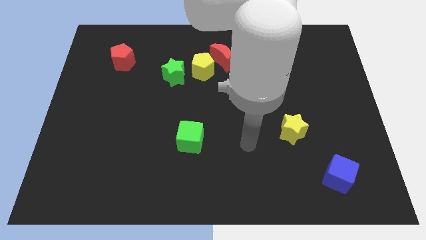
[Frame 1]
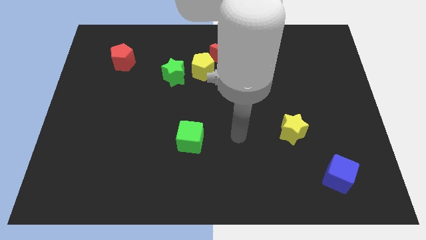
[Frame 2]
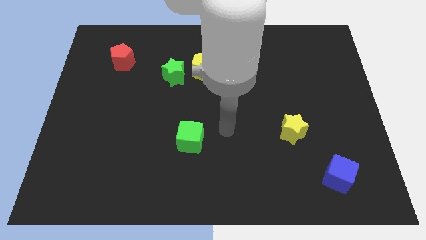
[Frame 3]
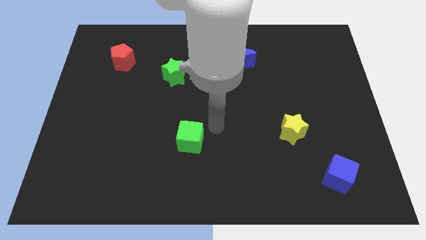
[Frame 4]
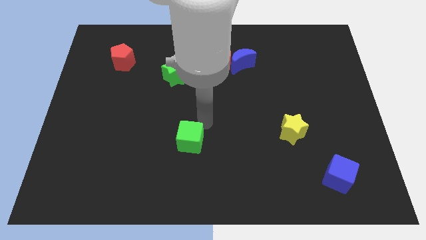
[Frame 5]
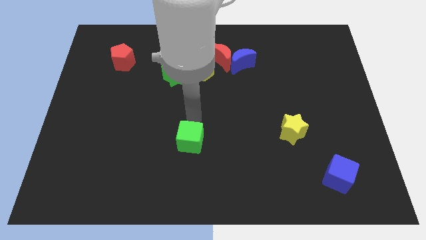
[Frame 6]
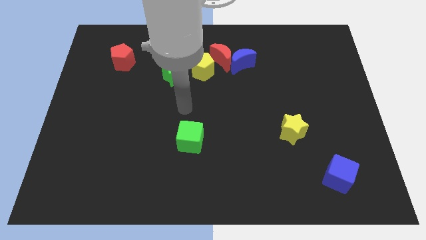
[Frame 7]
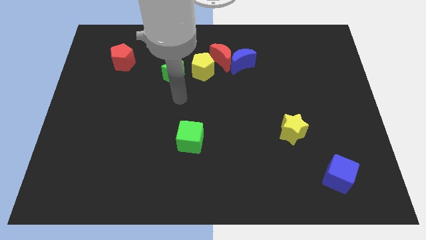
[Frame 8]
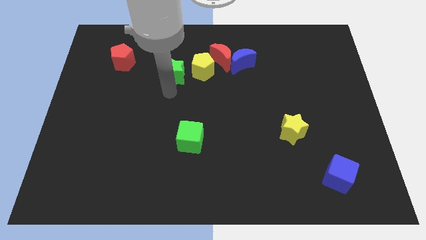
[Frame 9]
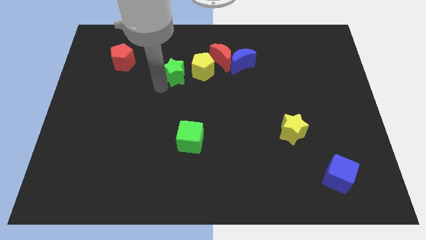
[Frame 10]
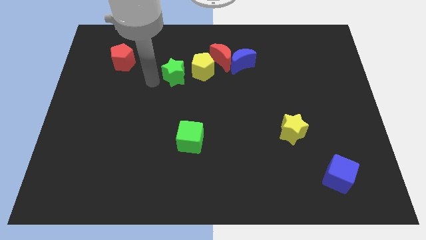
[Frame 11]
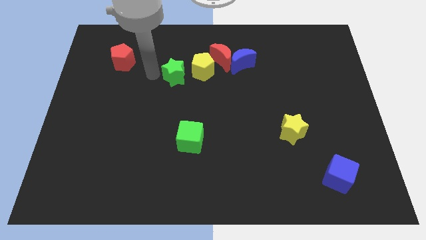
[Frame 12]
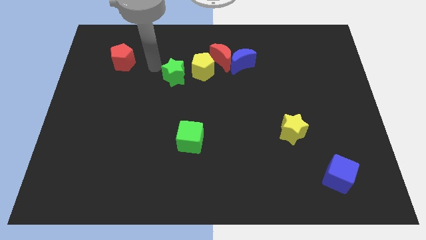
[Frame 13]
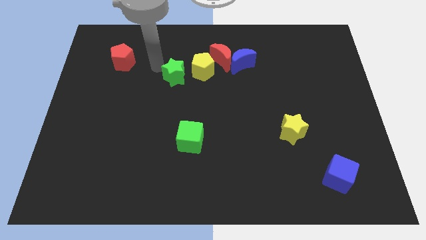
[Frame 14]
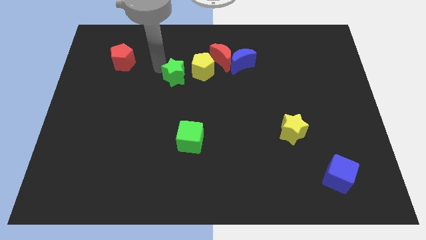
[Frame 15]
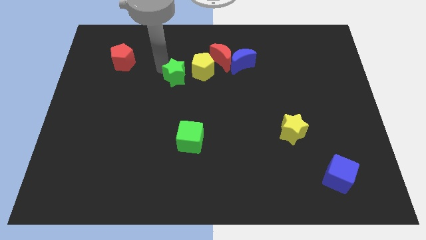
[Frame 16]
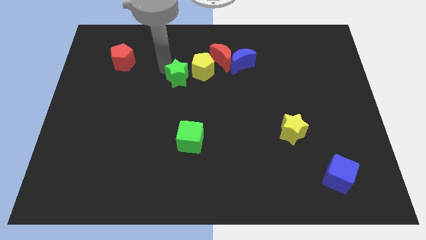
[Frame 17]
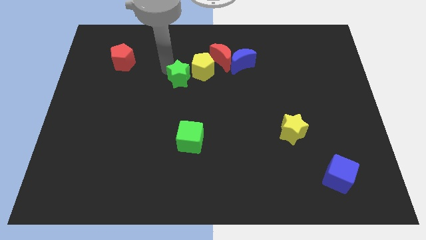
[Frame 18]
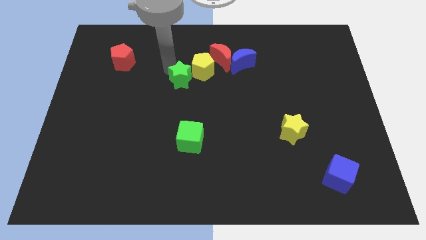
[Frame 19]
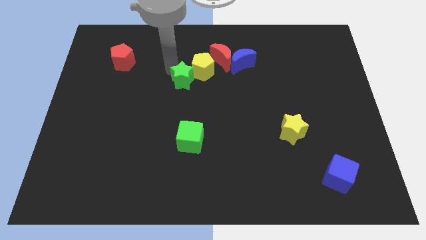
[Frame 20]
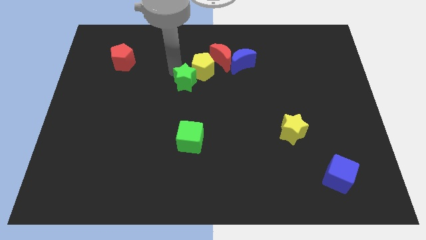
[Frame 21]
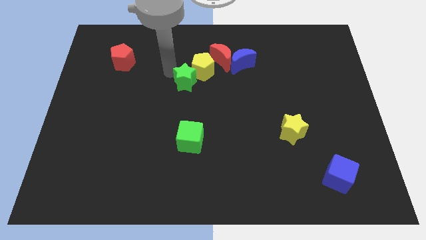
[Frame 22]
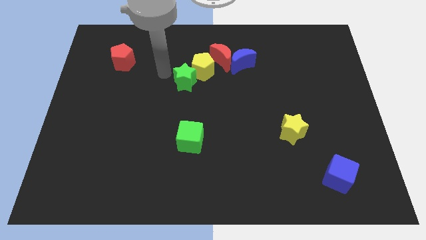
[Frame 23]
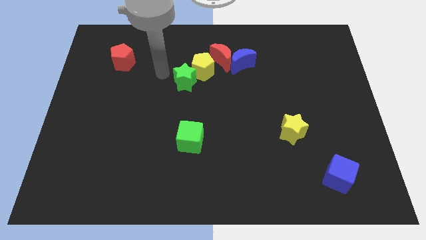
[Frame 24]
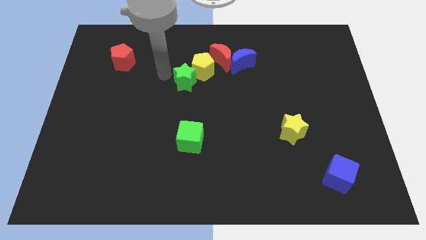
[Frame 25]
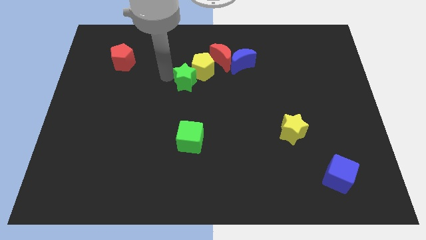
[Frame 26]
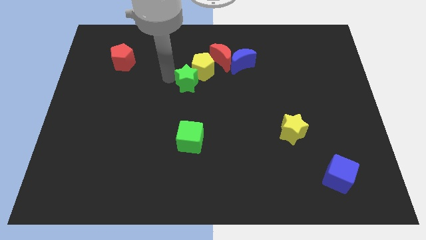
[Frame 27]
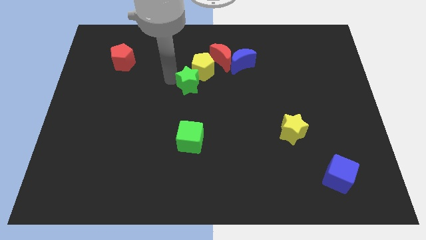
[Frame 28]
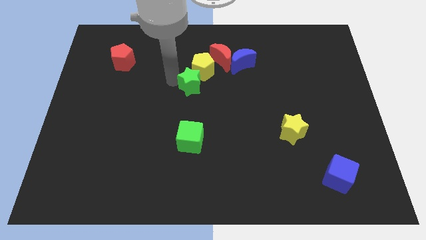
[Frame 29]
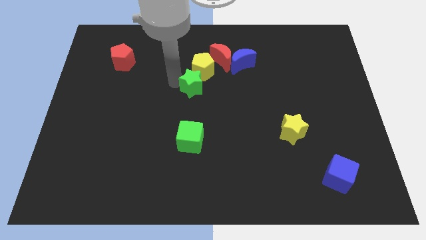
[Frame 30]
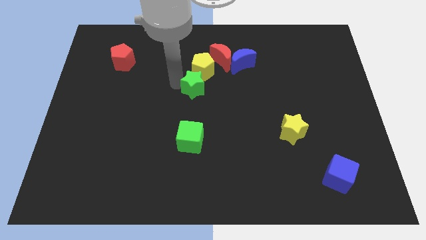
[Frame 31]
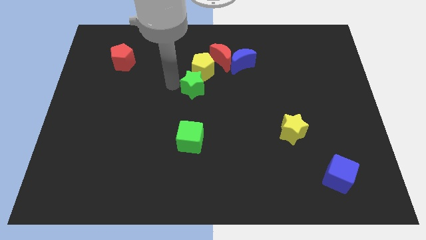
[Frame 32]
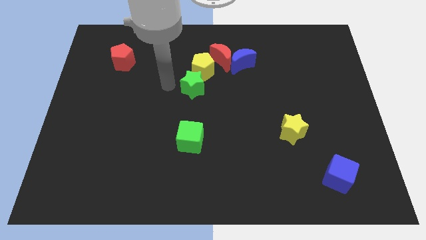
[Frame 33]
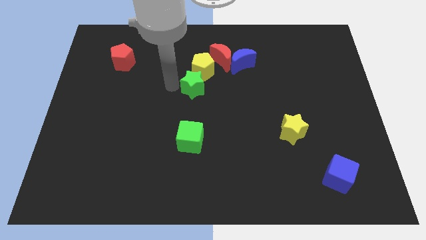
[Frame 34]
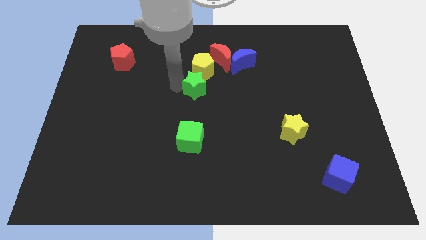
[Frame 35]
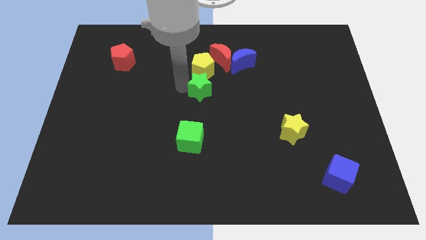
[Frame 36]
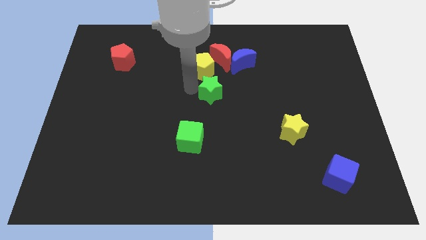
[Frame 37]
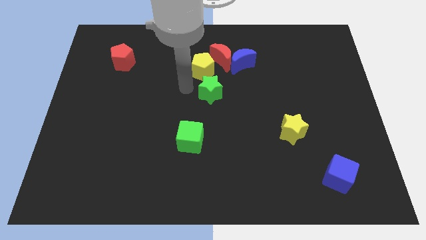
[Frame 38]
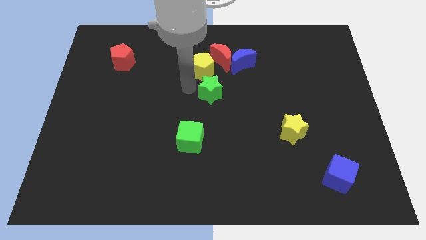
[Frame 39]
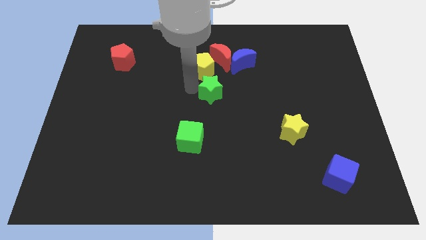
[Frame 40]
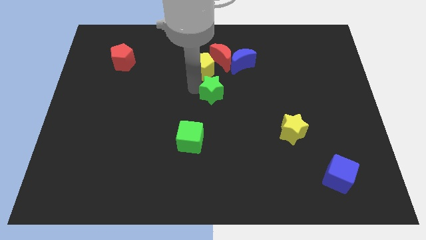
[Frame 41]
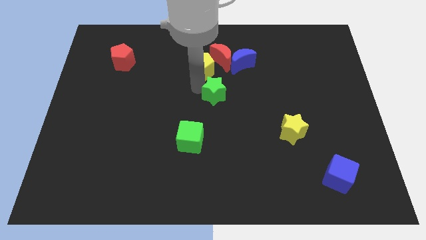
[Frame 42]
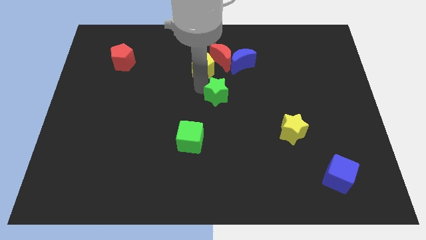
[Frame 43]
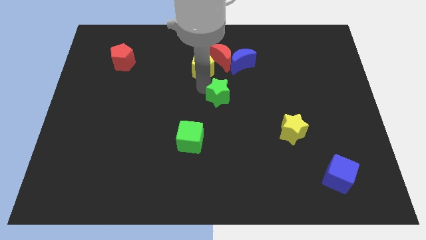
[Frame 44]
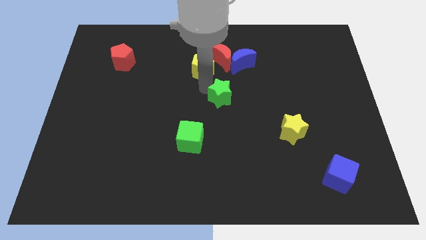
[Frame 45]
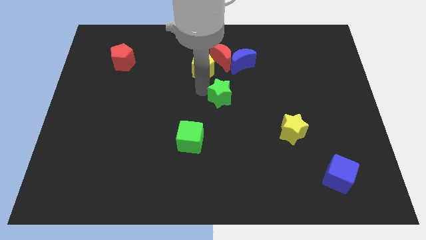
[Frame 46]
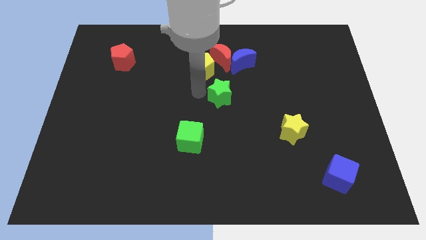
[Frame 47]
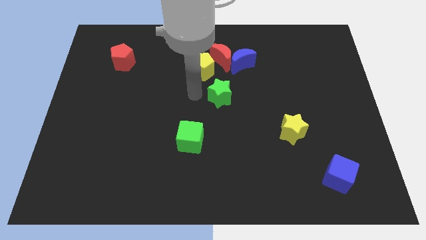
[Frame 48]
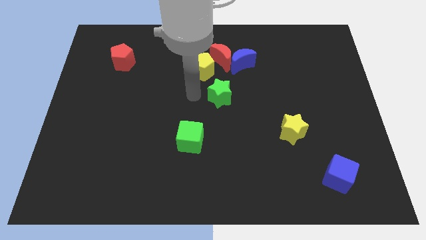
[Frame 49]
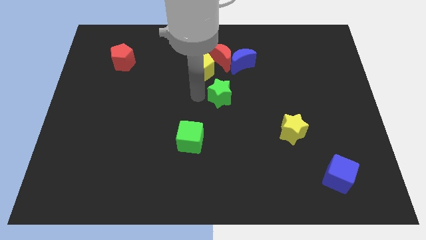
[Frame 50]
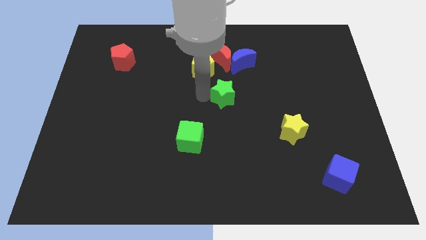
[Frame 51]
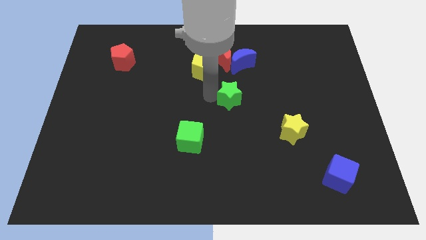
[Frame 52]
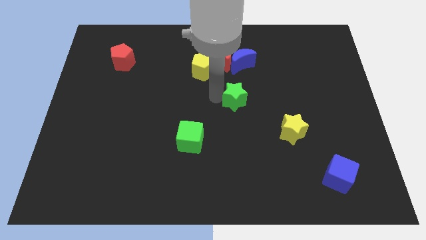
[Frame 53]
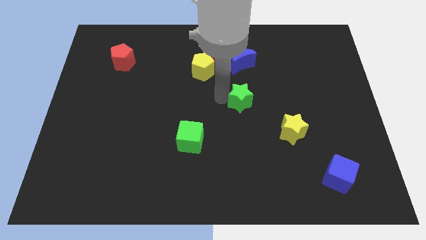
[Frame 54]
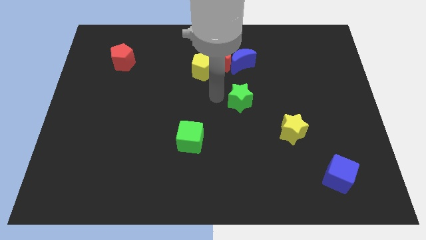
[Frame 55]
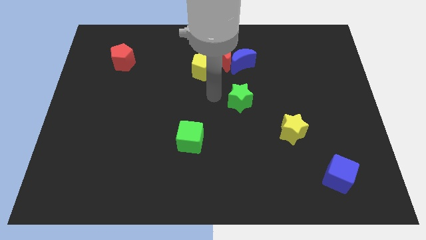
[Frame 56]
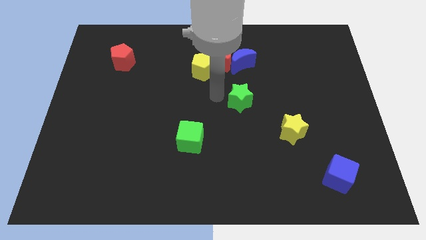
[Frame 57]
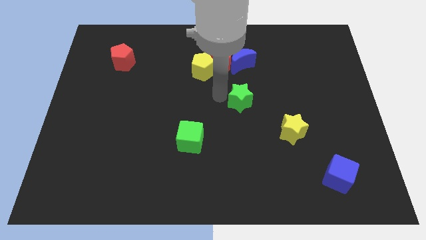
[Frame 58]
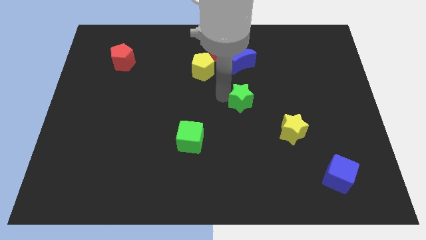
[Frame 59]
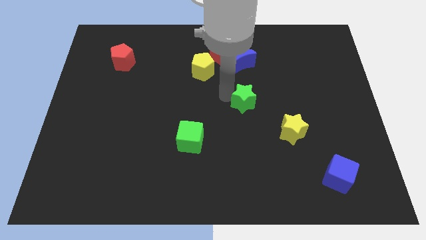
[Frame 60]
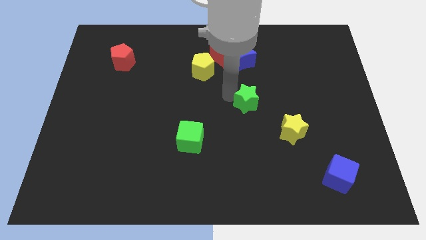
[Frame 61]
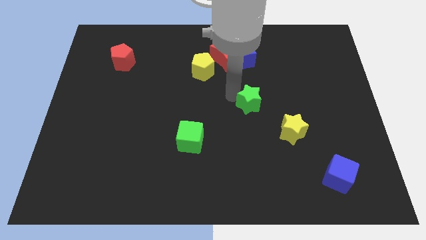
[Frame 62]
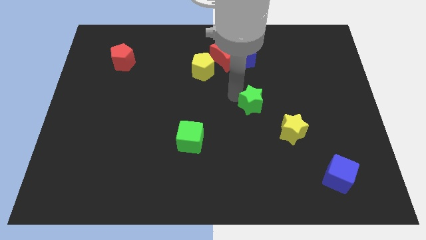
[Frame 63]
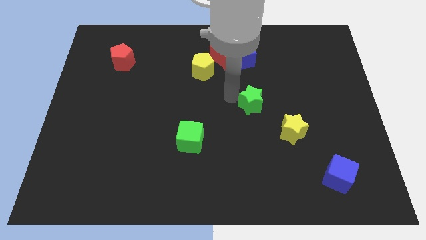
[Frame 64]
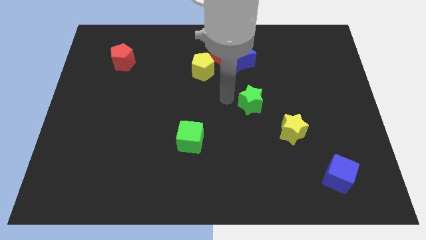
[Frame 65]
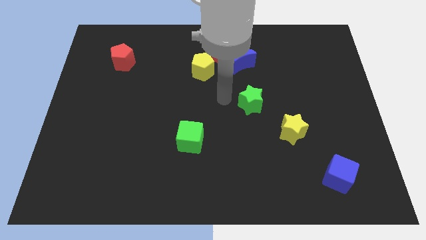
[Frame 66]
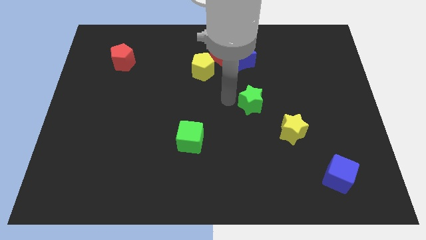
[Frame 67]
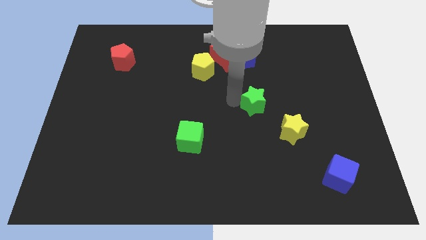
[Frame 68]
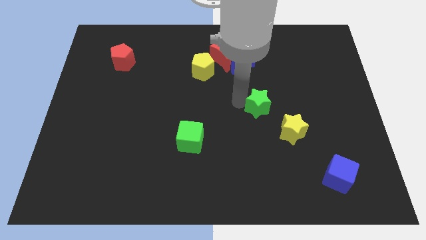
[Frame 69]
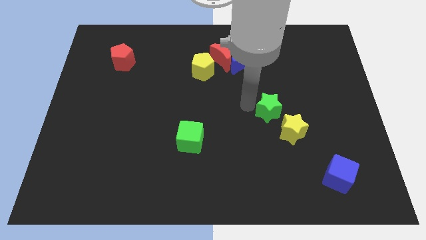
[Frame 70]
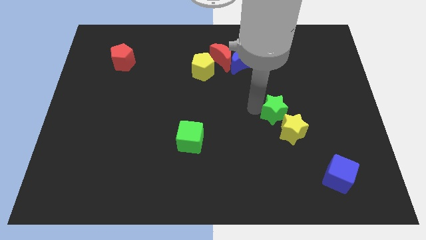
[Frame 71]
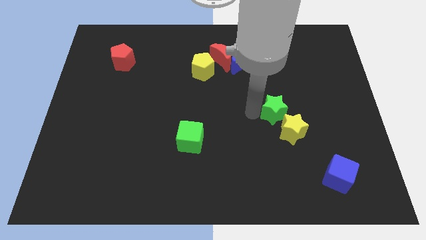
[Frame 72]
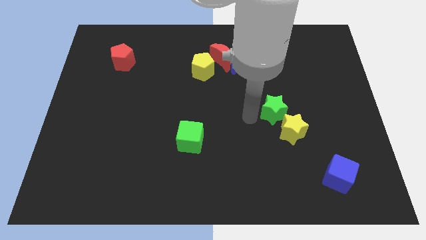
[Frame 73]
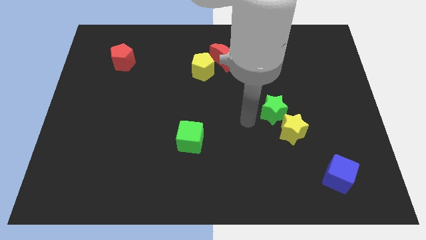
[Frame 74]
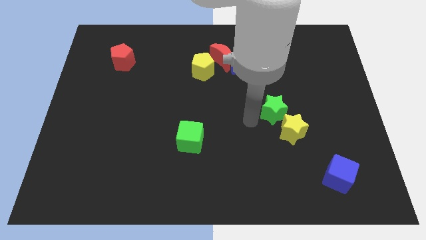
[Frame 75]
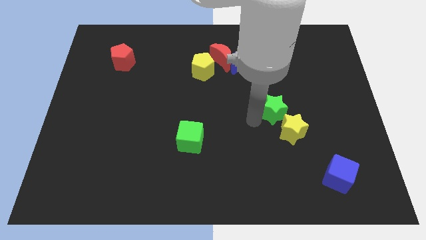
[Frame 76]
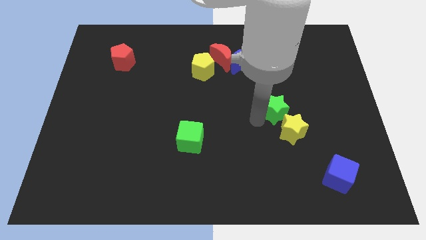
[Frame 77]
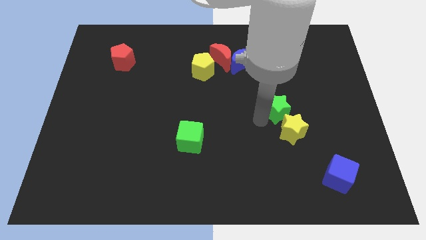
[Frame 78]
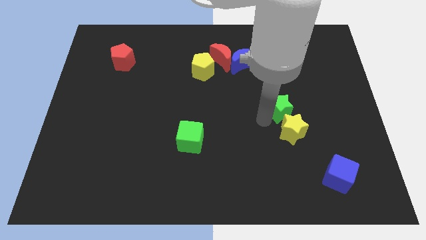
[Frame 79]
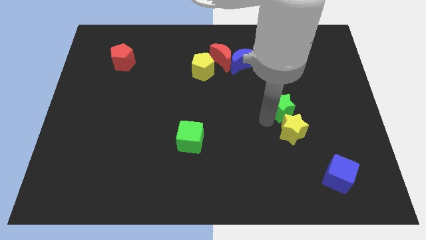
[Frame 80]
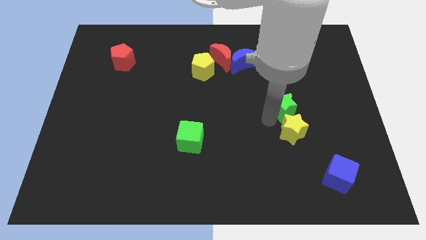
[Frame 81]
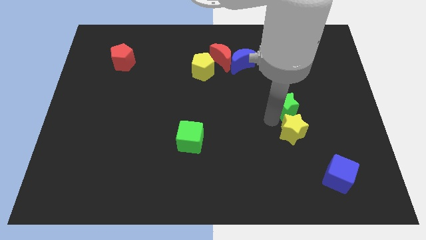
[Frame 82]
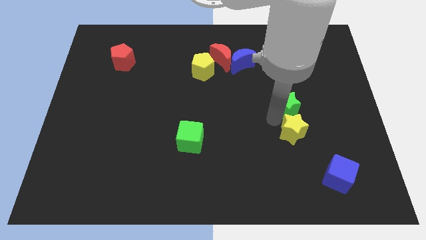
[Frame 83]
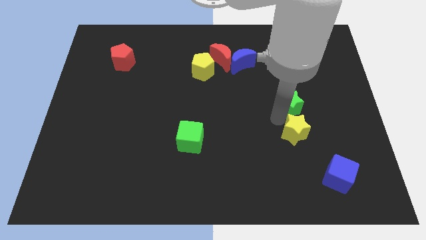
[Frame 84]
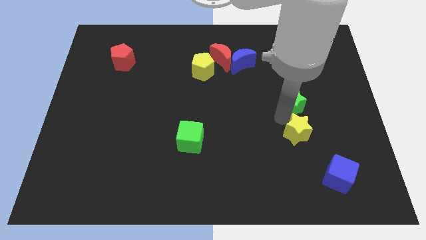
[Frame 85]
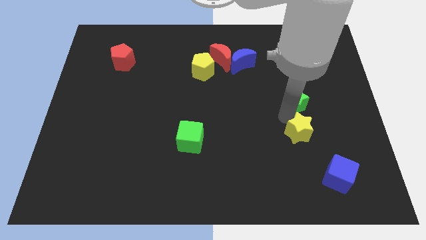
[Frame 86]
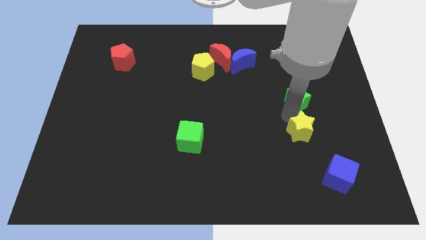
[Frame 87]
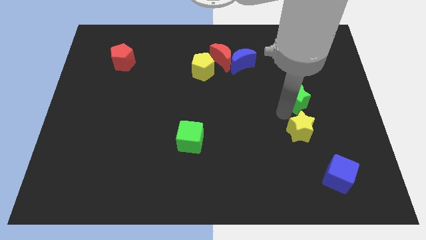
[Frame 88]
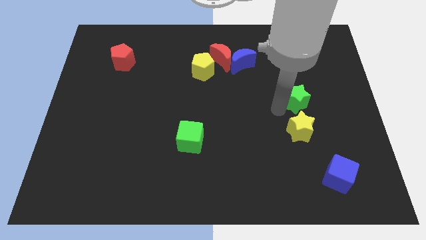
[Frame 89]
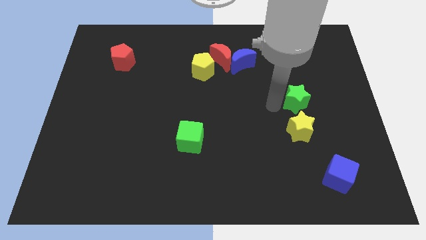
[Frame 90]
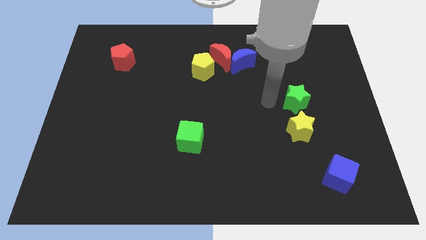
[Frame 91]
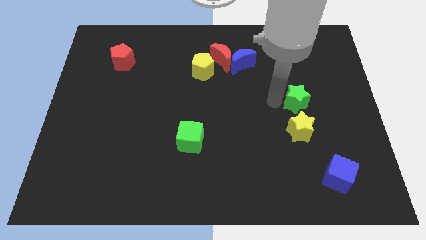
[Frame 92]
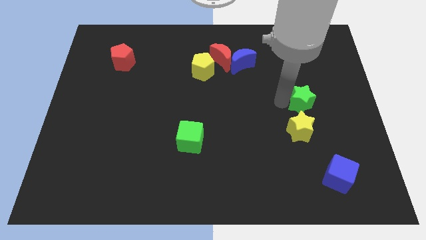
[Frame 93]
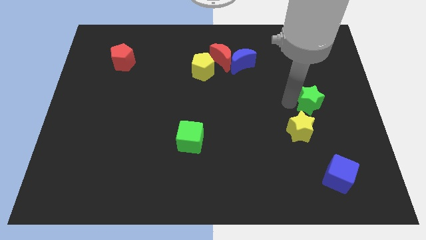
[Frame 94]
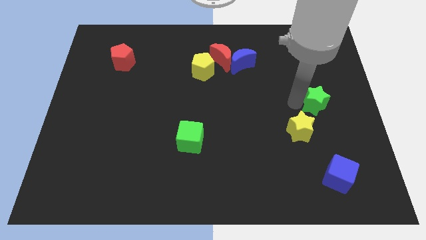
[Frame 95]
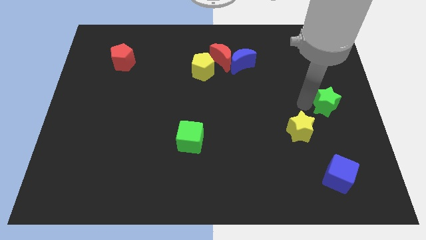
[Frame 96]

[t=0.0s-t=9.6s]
move the green star to the right side
